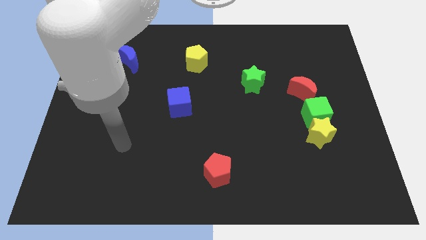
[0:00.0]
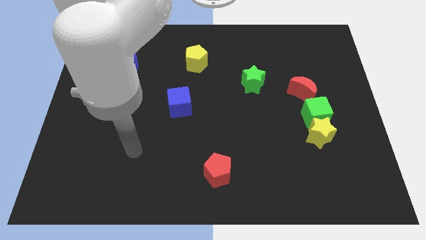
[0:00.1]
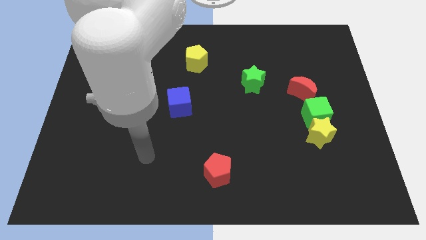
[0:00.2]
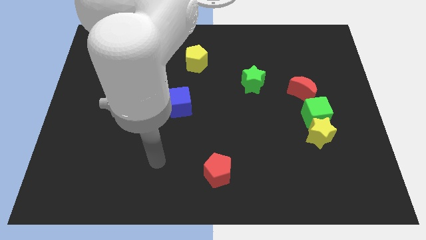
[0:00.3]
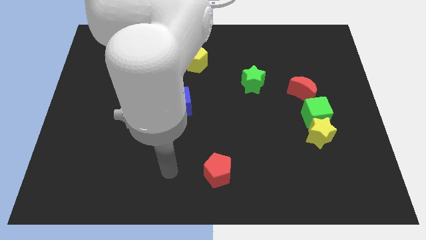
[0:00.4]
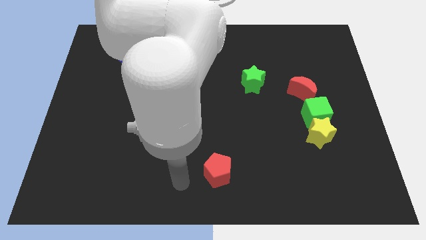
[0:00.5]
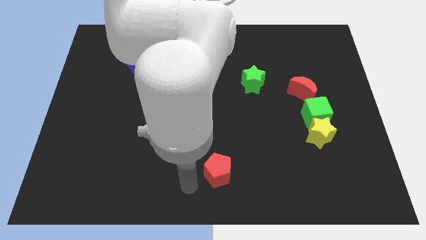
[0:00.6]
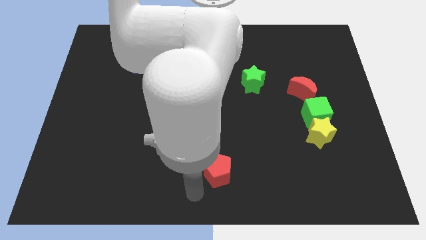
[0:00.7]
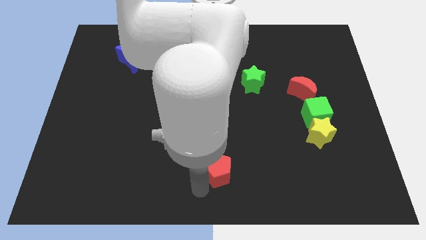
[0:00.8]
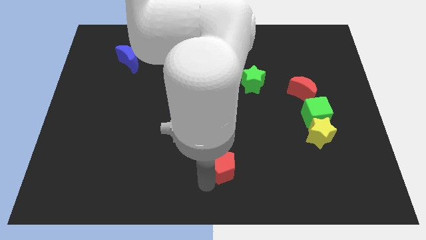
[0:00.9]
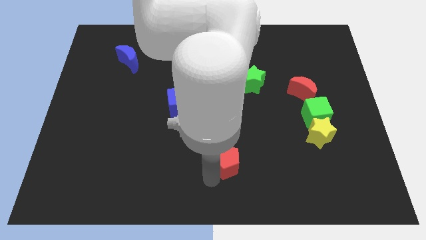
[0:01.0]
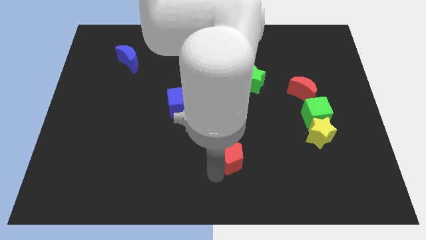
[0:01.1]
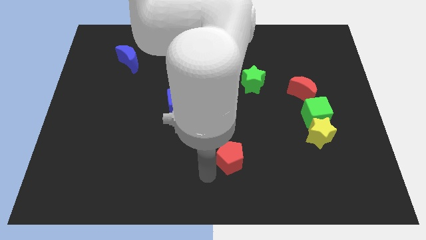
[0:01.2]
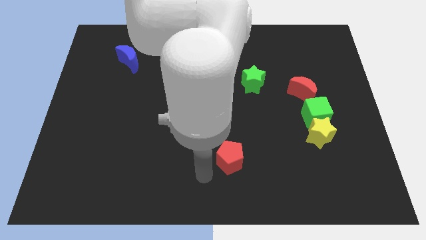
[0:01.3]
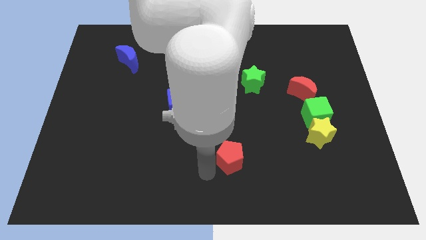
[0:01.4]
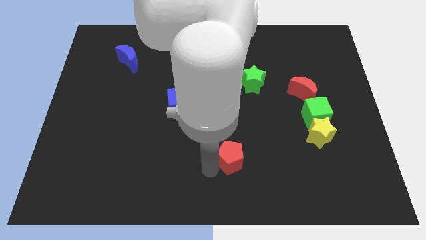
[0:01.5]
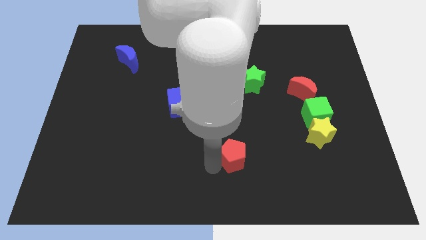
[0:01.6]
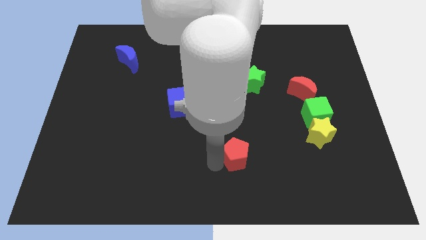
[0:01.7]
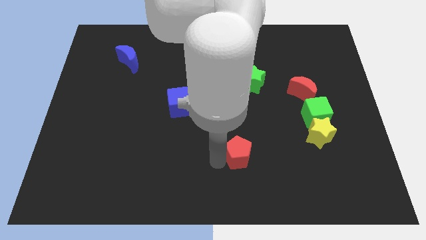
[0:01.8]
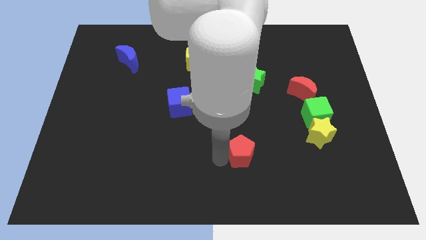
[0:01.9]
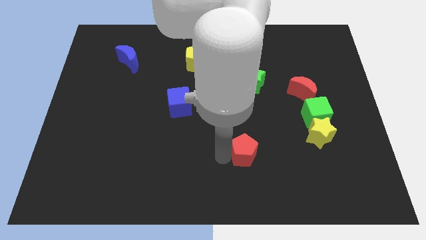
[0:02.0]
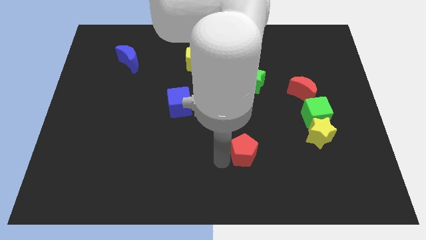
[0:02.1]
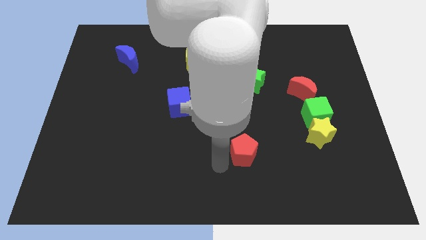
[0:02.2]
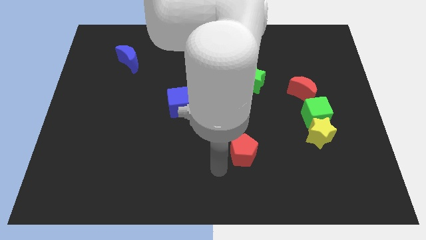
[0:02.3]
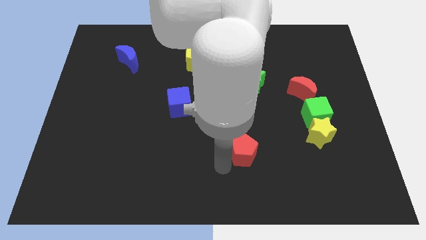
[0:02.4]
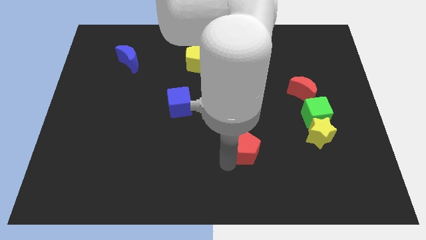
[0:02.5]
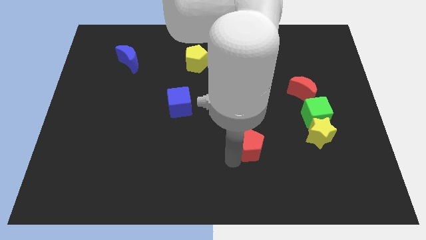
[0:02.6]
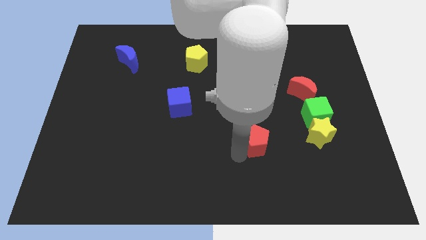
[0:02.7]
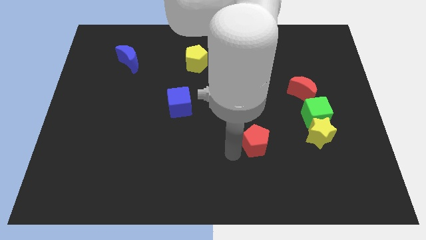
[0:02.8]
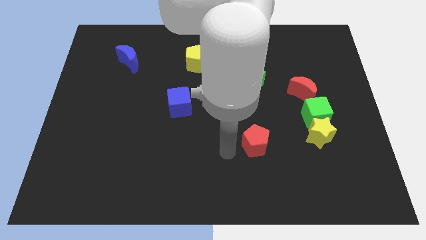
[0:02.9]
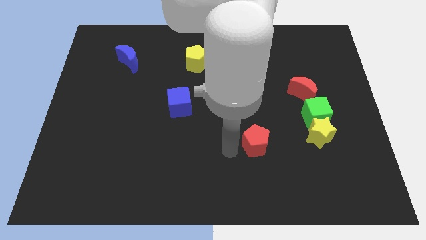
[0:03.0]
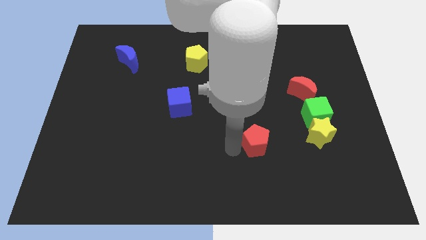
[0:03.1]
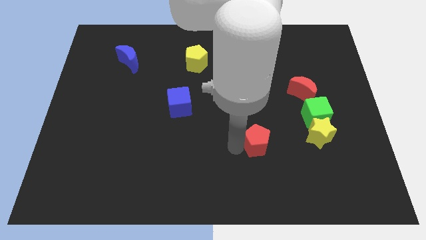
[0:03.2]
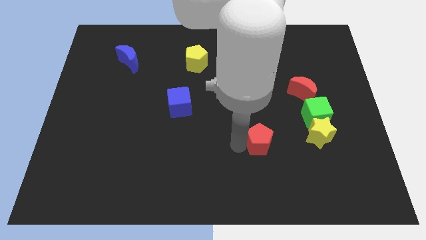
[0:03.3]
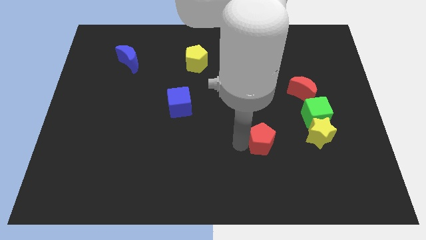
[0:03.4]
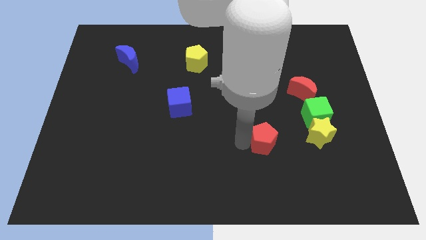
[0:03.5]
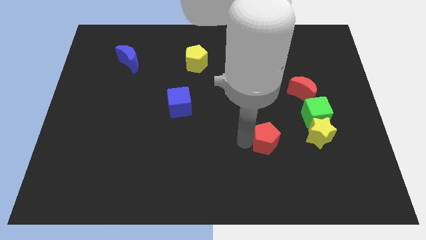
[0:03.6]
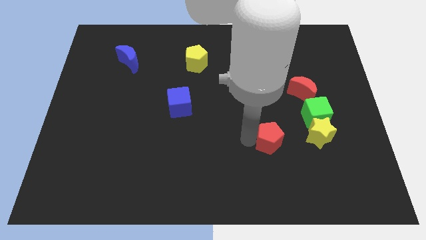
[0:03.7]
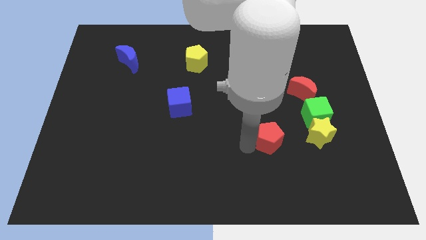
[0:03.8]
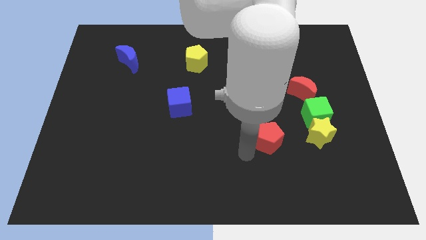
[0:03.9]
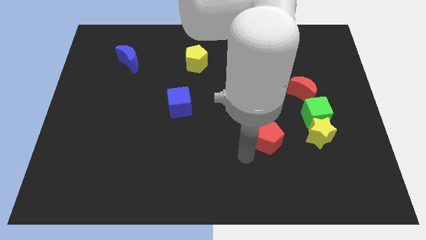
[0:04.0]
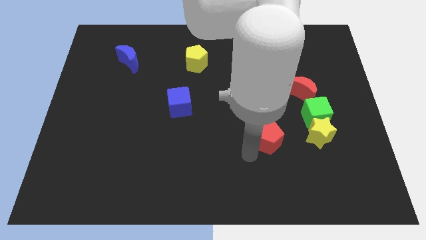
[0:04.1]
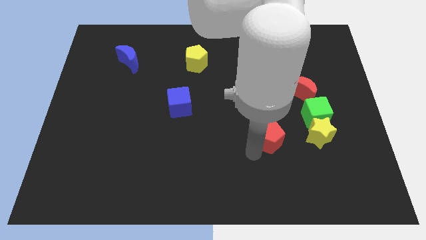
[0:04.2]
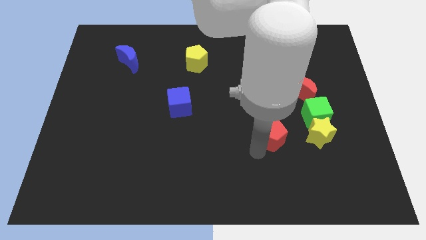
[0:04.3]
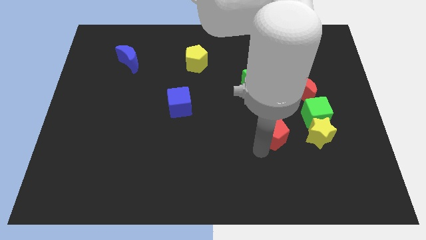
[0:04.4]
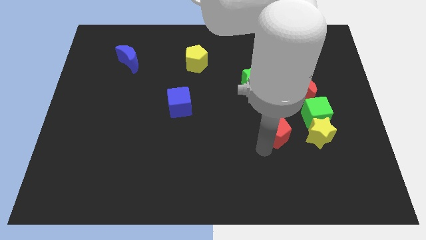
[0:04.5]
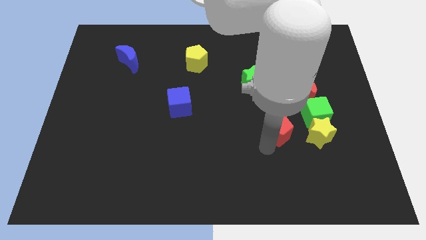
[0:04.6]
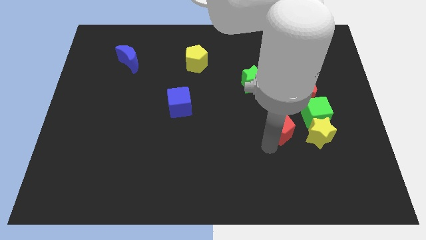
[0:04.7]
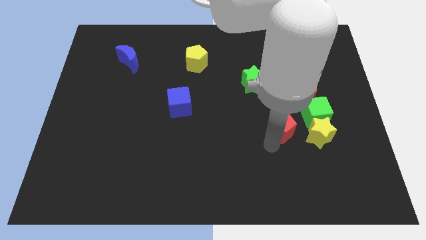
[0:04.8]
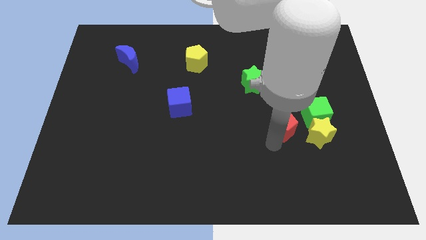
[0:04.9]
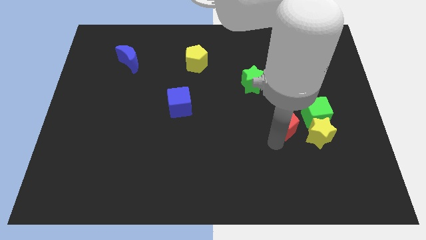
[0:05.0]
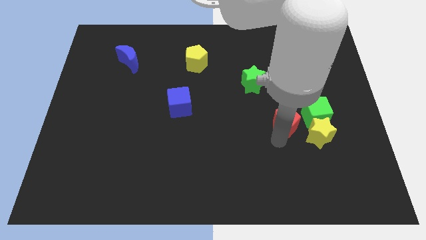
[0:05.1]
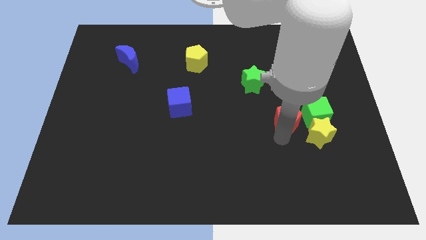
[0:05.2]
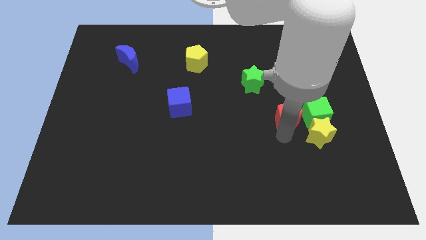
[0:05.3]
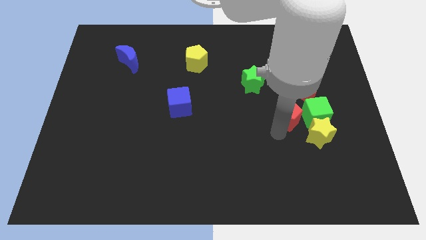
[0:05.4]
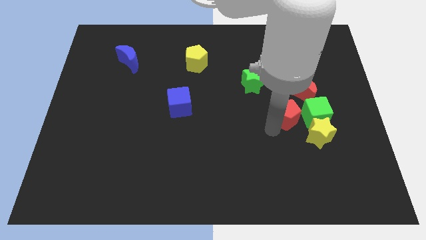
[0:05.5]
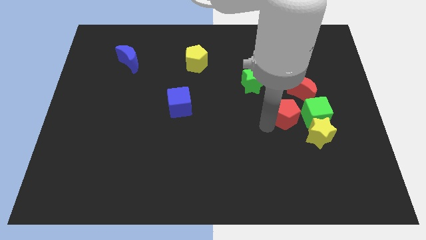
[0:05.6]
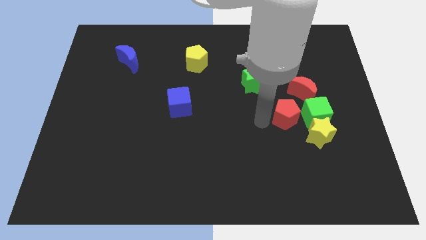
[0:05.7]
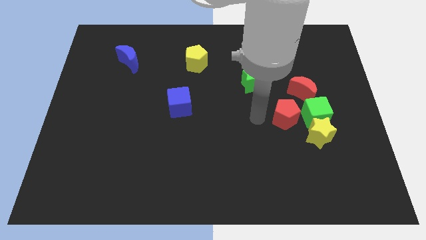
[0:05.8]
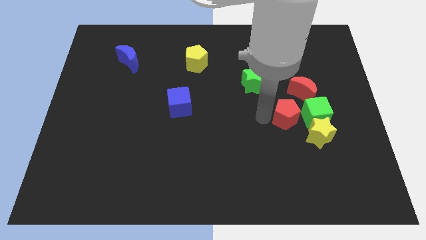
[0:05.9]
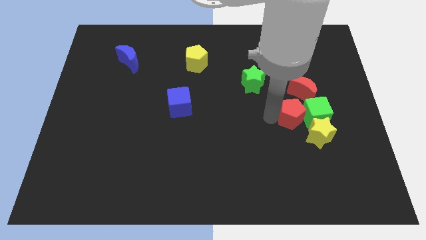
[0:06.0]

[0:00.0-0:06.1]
push the red pentagon close to the green cube

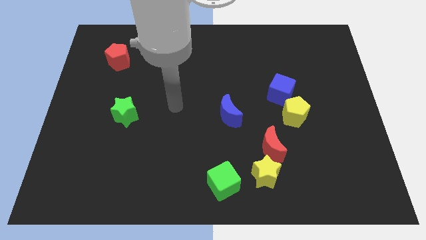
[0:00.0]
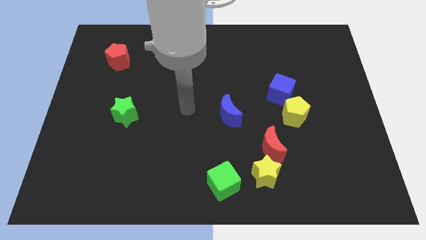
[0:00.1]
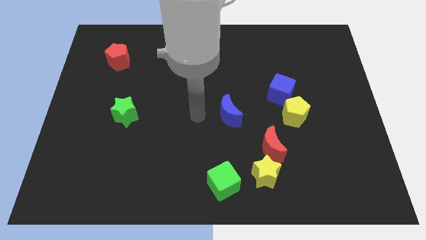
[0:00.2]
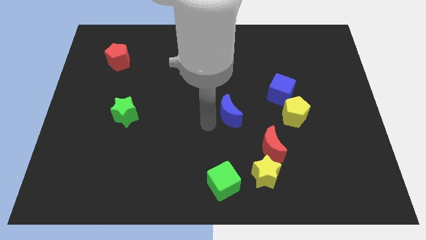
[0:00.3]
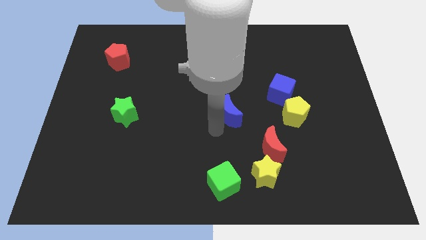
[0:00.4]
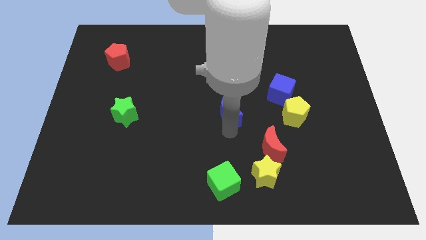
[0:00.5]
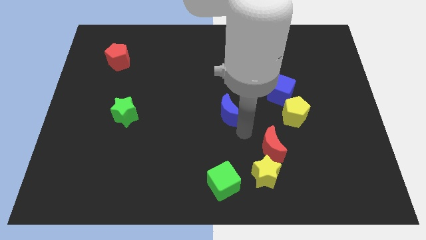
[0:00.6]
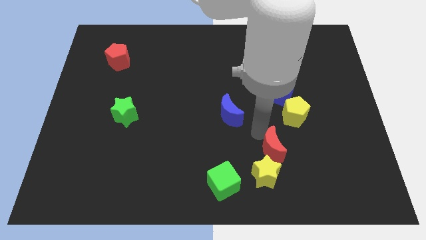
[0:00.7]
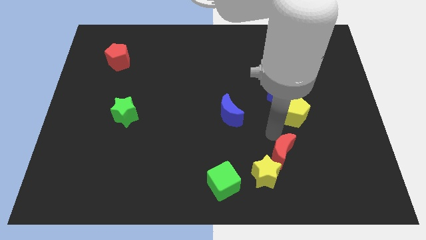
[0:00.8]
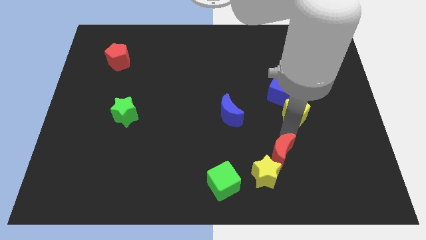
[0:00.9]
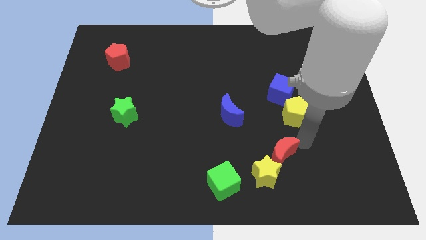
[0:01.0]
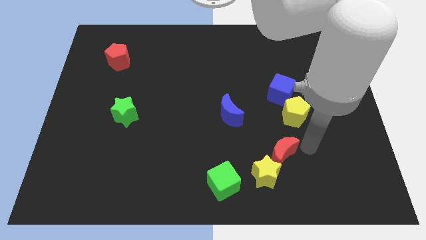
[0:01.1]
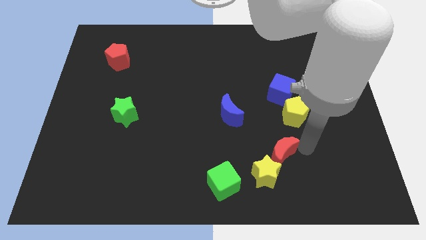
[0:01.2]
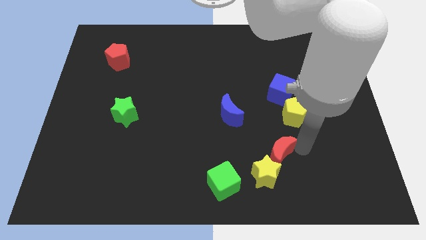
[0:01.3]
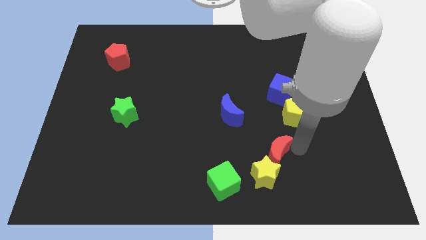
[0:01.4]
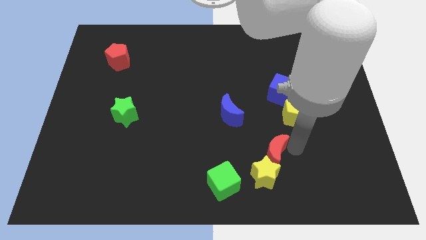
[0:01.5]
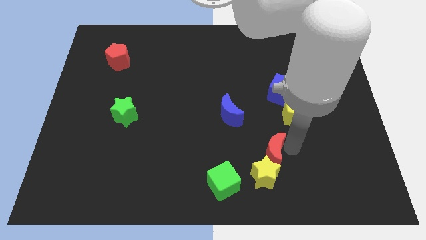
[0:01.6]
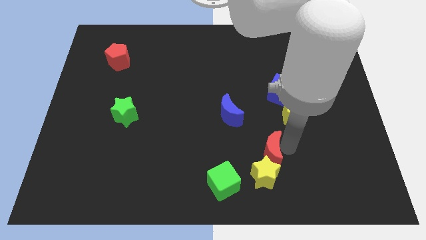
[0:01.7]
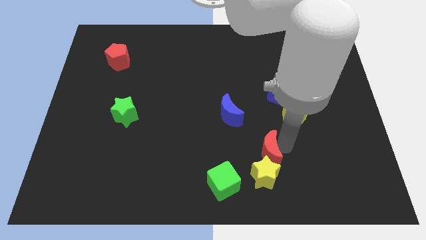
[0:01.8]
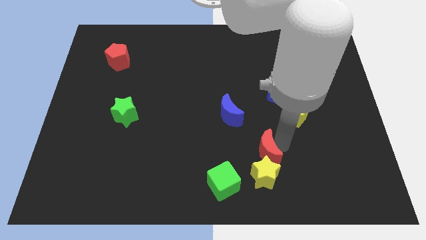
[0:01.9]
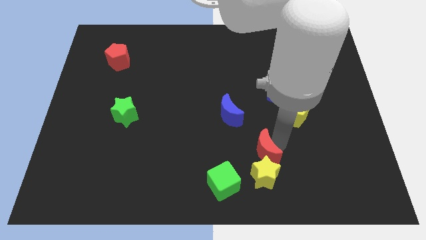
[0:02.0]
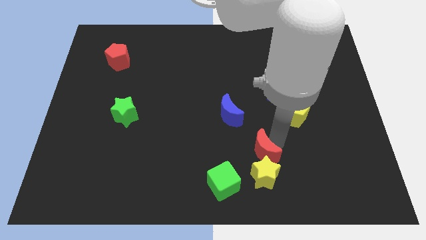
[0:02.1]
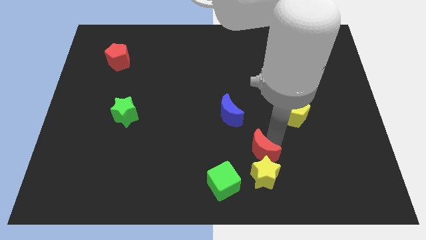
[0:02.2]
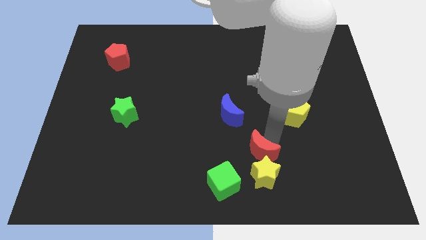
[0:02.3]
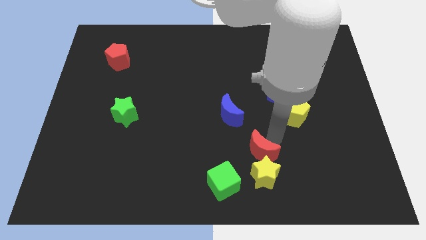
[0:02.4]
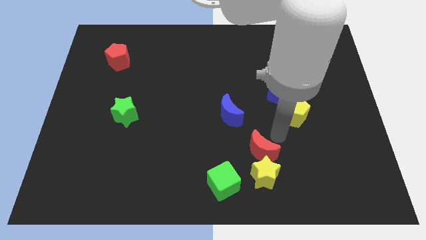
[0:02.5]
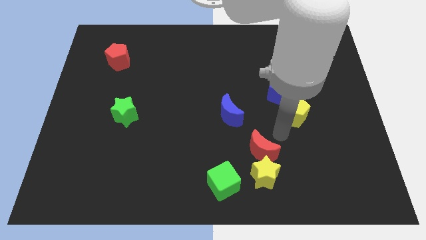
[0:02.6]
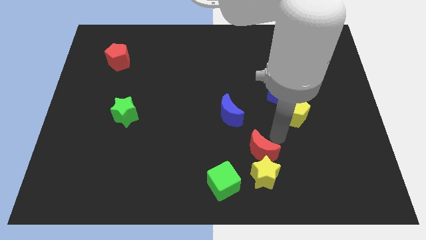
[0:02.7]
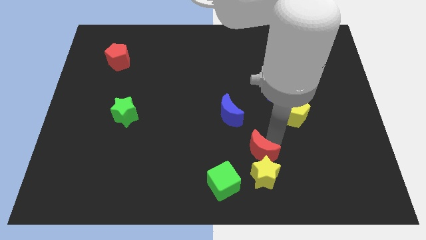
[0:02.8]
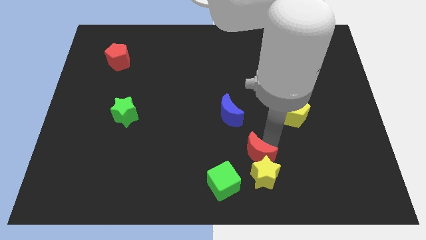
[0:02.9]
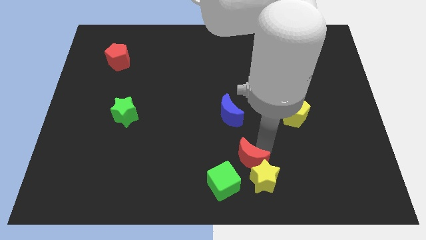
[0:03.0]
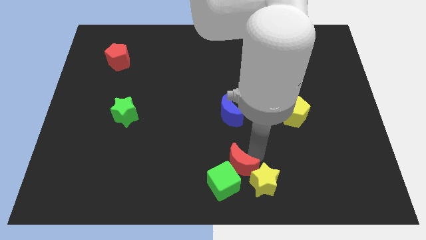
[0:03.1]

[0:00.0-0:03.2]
push the red moon towards the green cube
